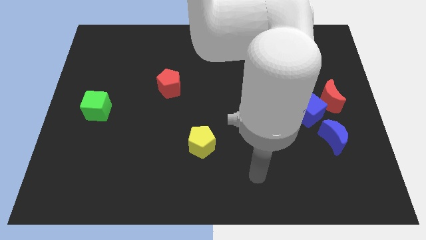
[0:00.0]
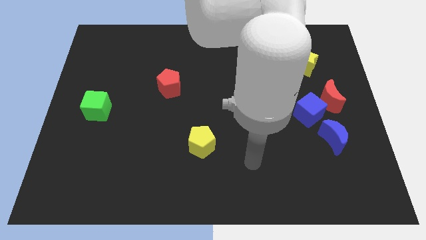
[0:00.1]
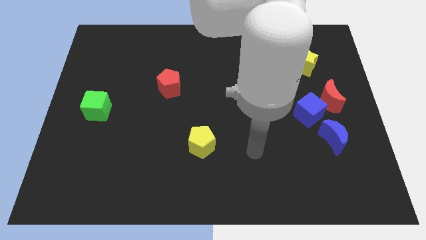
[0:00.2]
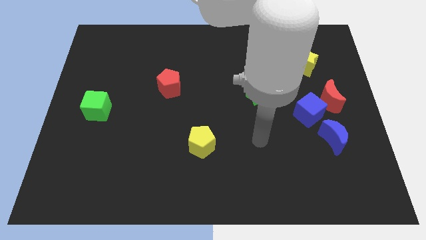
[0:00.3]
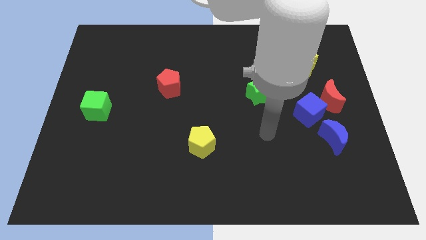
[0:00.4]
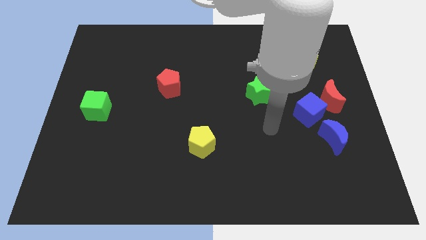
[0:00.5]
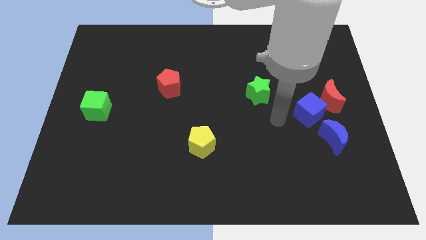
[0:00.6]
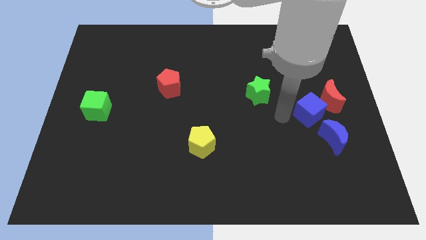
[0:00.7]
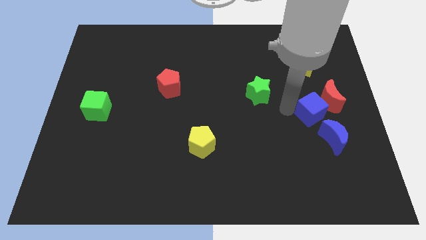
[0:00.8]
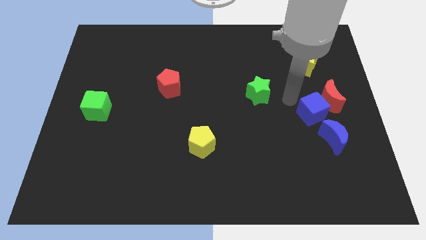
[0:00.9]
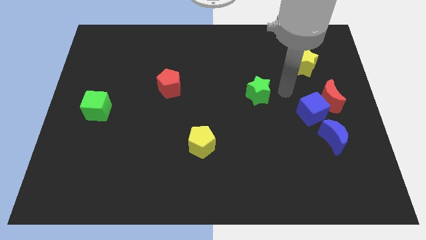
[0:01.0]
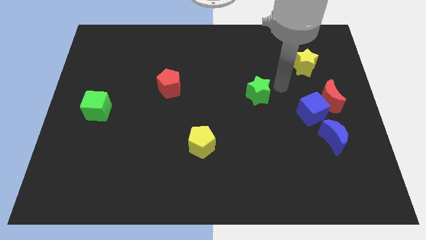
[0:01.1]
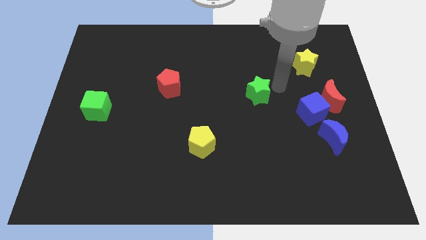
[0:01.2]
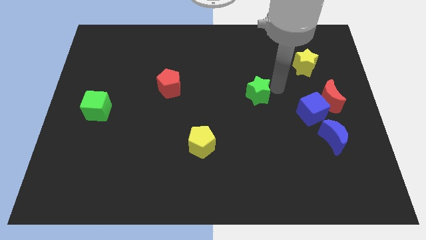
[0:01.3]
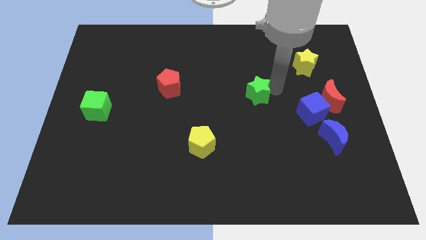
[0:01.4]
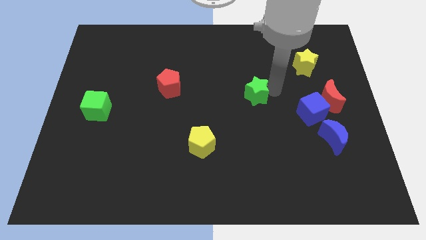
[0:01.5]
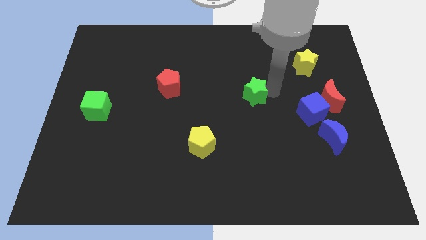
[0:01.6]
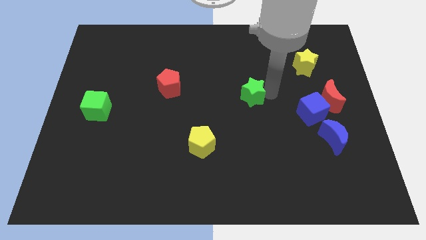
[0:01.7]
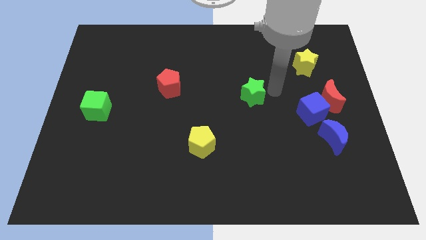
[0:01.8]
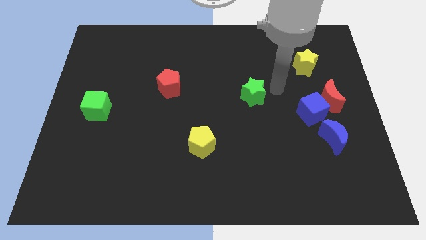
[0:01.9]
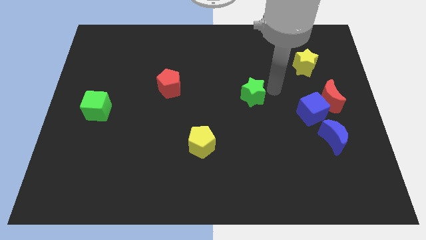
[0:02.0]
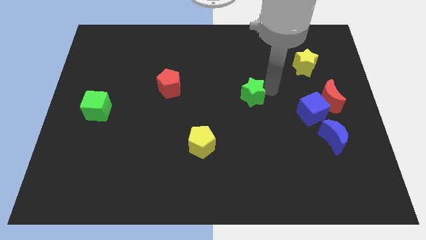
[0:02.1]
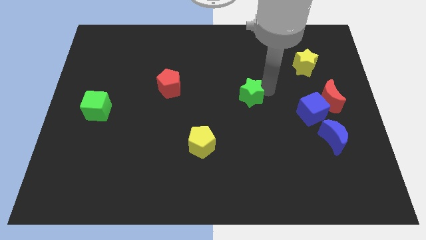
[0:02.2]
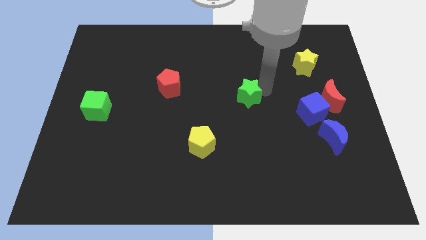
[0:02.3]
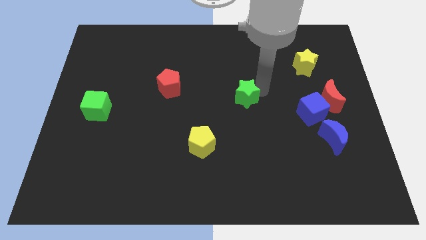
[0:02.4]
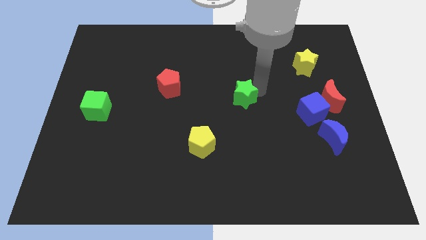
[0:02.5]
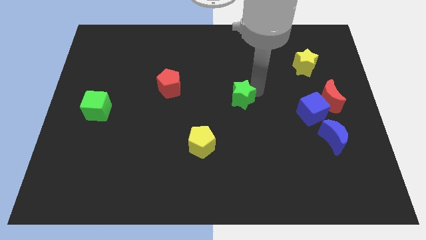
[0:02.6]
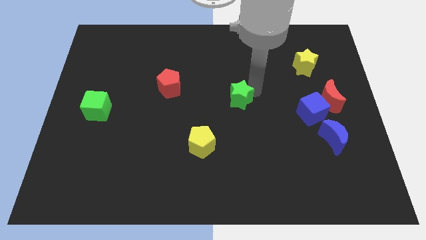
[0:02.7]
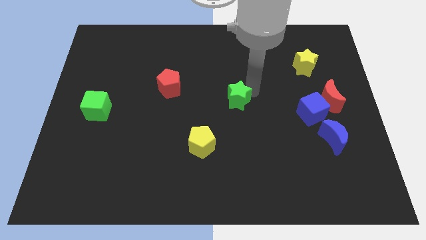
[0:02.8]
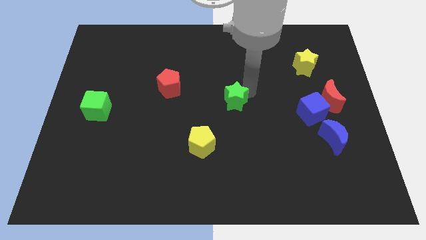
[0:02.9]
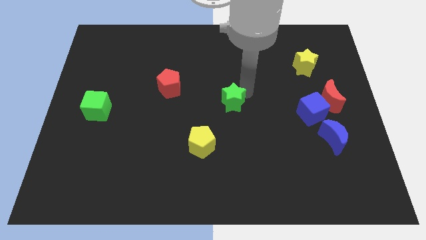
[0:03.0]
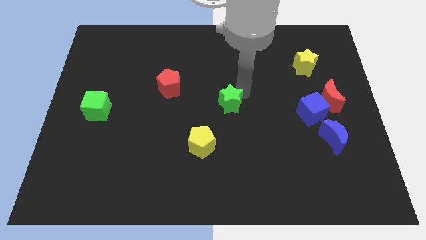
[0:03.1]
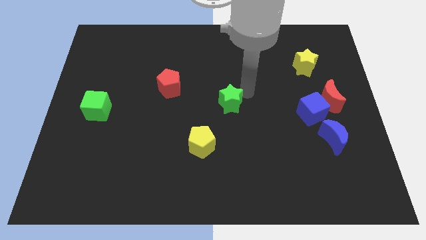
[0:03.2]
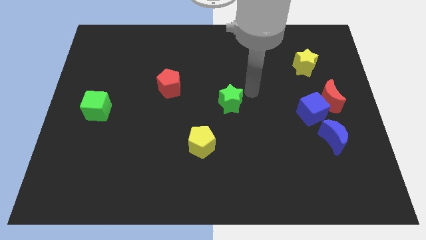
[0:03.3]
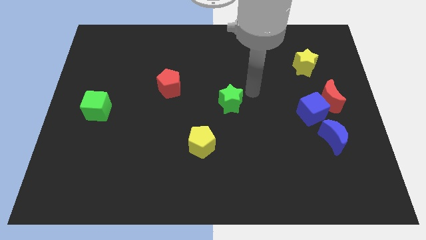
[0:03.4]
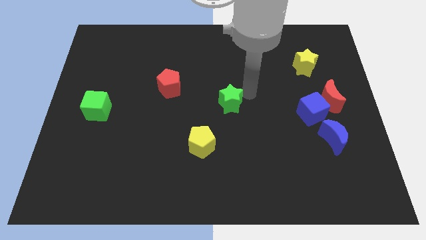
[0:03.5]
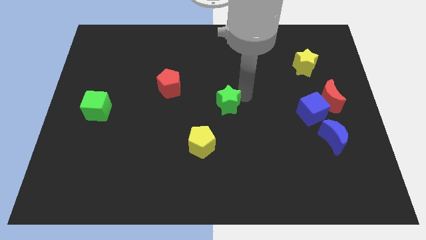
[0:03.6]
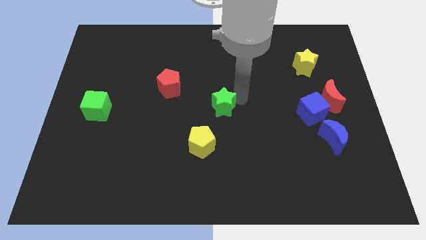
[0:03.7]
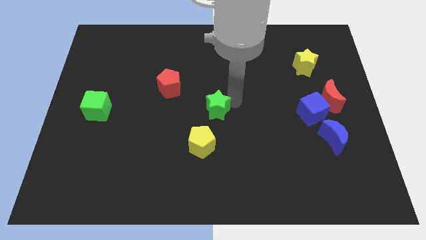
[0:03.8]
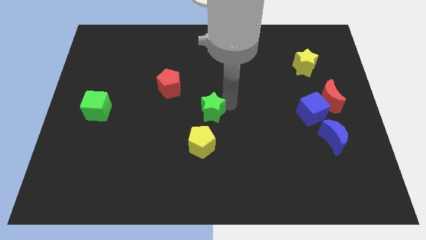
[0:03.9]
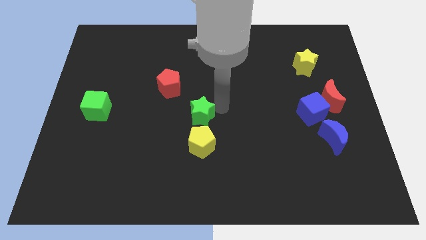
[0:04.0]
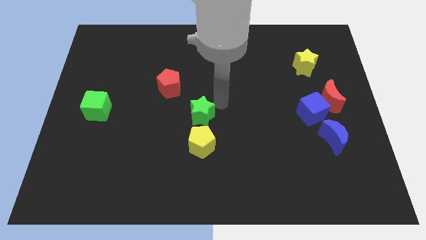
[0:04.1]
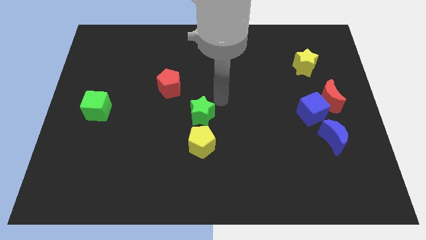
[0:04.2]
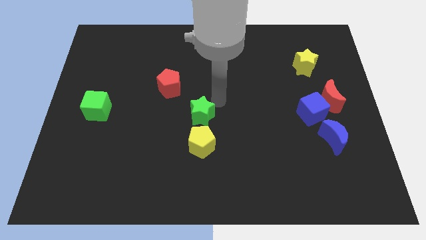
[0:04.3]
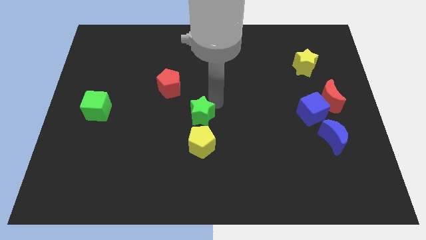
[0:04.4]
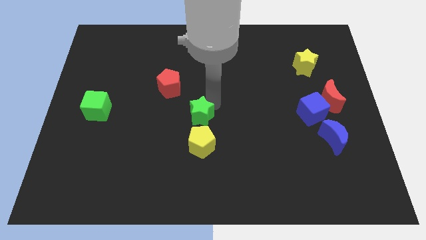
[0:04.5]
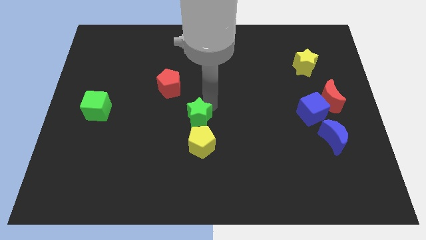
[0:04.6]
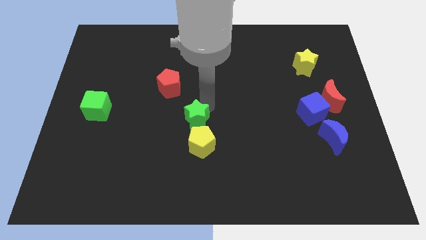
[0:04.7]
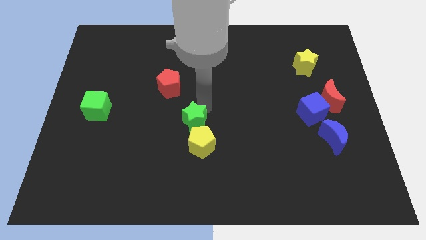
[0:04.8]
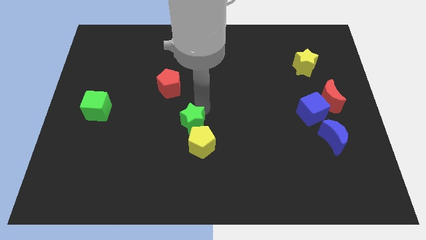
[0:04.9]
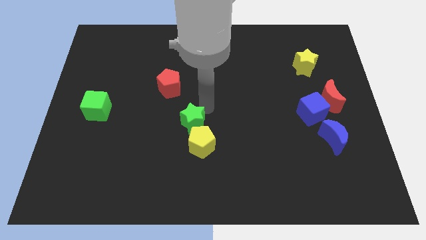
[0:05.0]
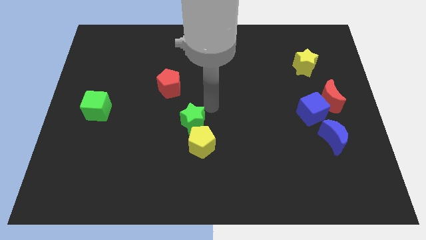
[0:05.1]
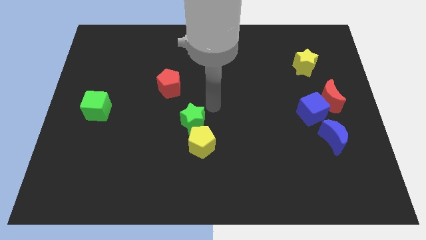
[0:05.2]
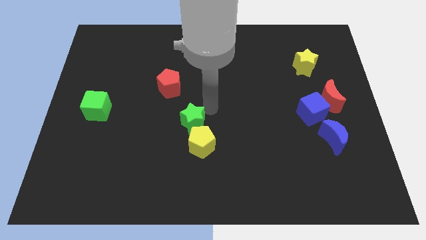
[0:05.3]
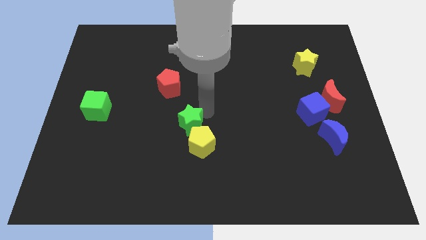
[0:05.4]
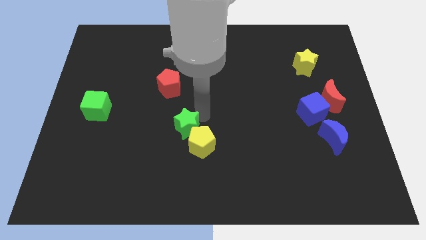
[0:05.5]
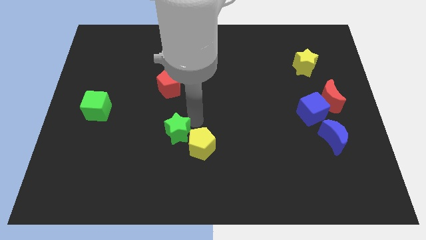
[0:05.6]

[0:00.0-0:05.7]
push the green star downwards and to the left diagonally

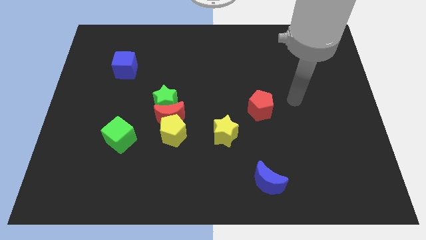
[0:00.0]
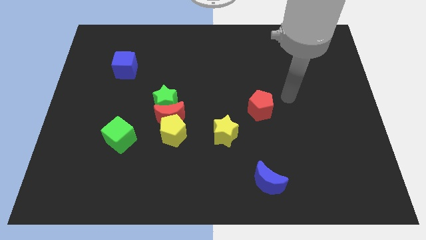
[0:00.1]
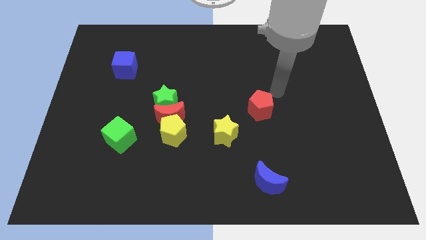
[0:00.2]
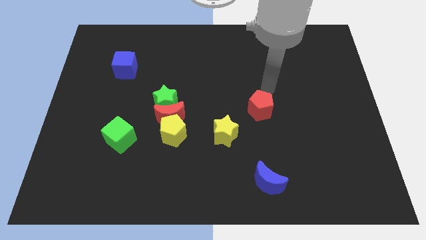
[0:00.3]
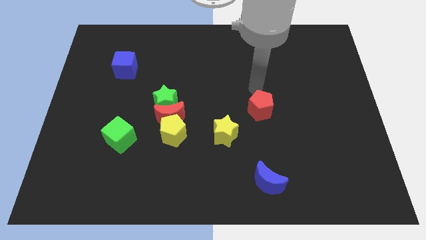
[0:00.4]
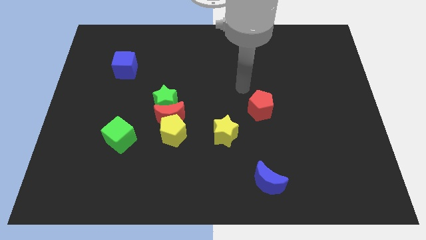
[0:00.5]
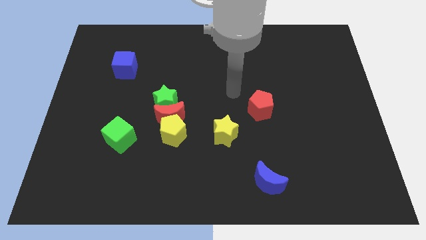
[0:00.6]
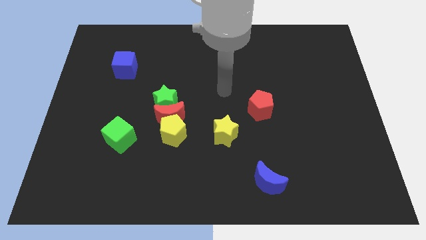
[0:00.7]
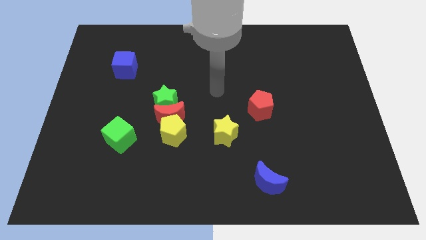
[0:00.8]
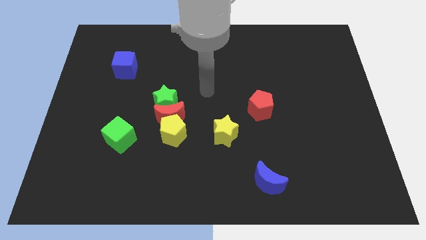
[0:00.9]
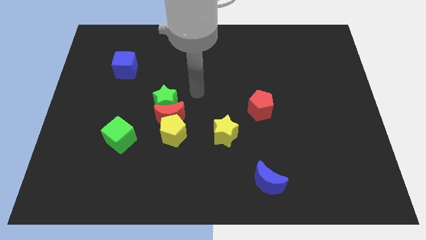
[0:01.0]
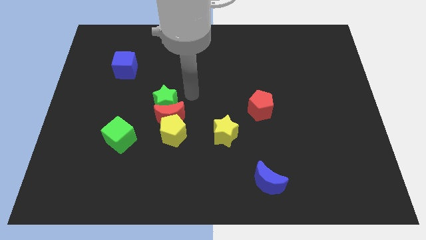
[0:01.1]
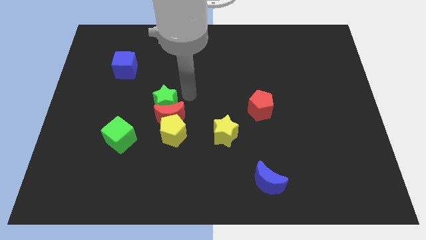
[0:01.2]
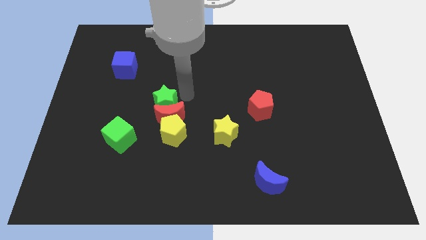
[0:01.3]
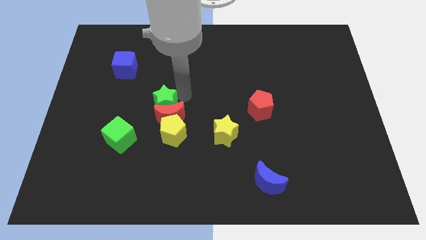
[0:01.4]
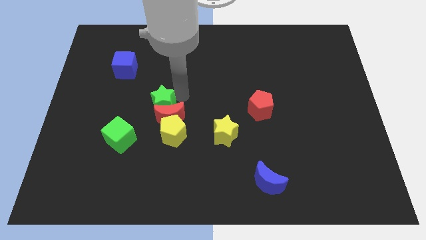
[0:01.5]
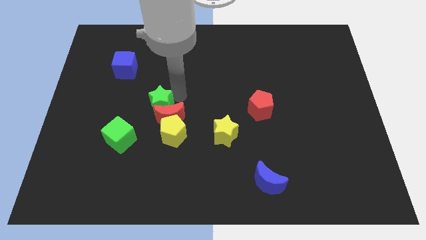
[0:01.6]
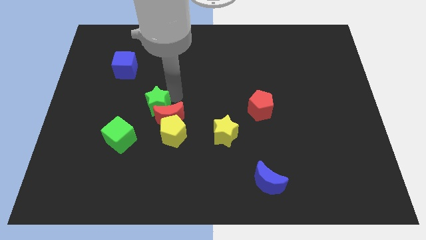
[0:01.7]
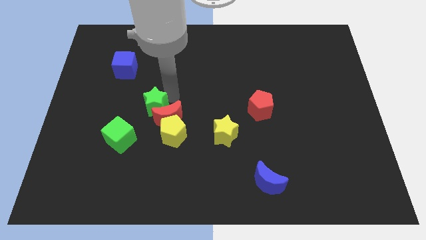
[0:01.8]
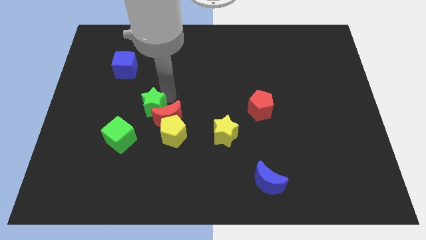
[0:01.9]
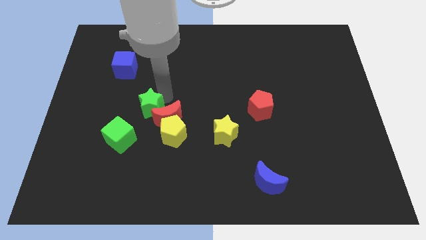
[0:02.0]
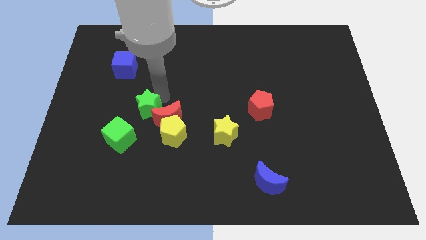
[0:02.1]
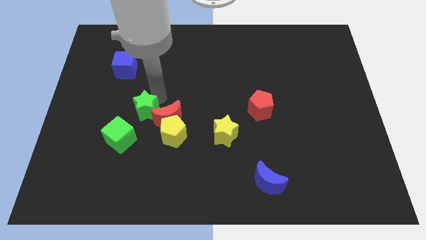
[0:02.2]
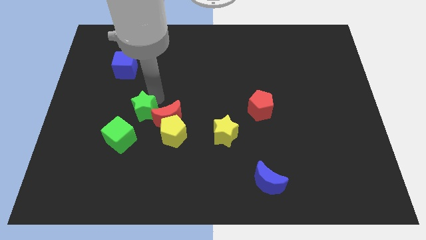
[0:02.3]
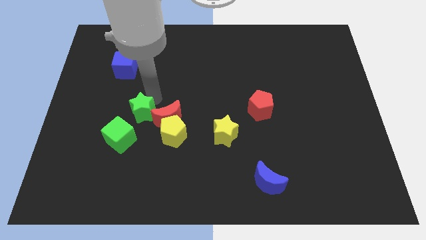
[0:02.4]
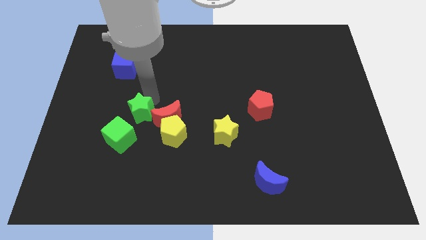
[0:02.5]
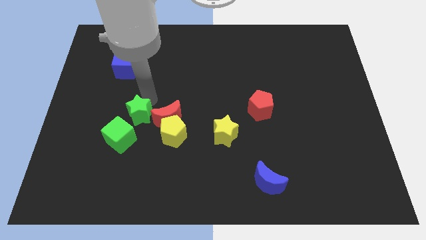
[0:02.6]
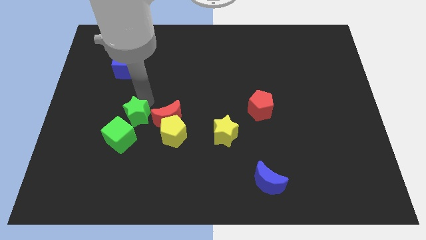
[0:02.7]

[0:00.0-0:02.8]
move the green star downwards and to the left diagonally somewhat
